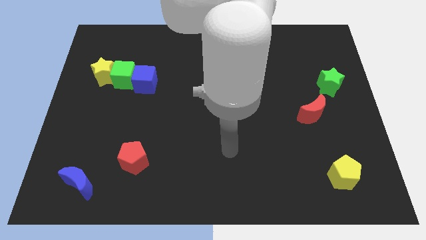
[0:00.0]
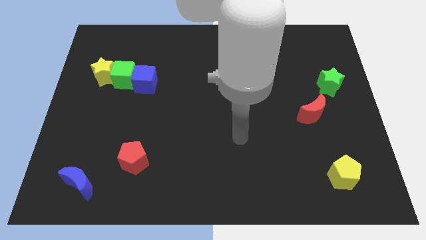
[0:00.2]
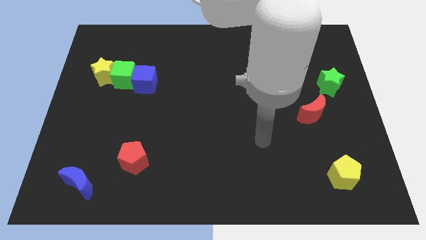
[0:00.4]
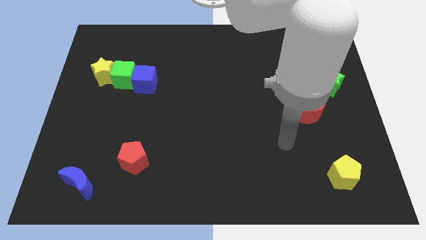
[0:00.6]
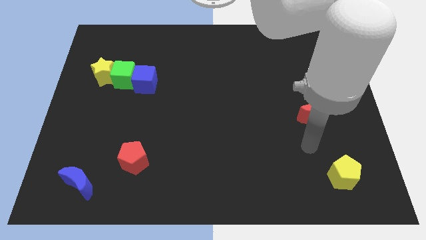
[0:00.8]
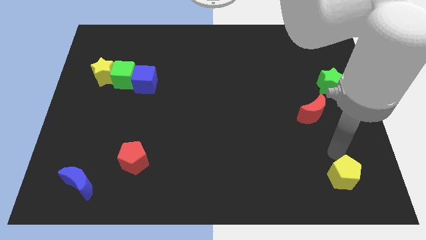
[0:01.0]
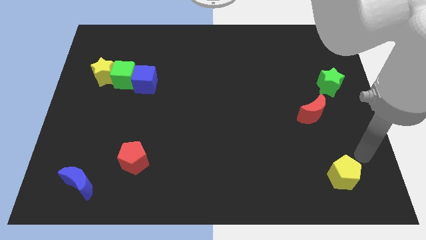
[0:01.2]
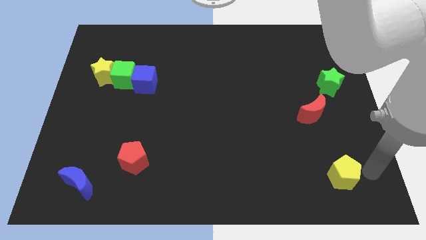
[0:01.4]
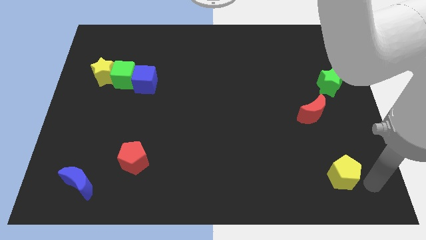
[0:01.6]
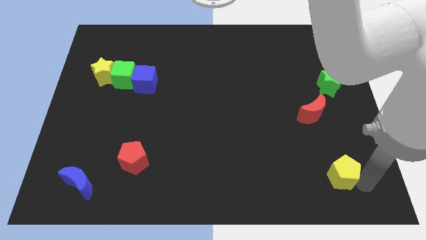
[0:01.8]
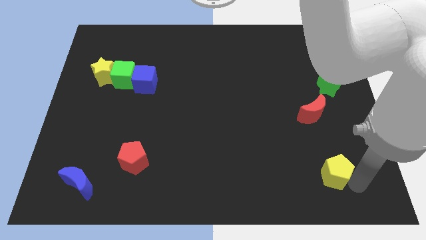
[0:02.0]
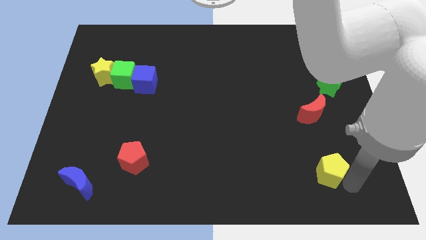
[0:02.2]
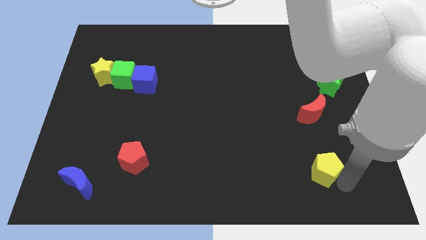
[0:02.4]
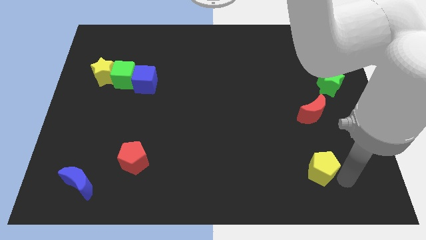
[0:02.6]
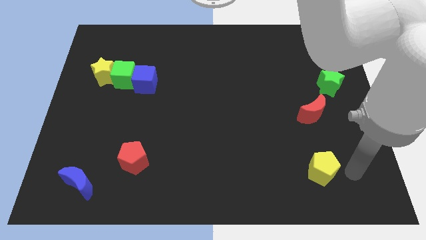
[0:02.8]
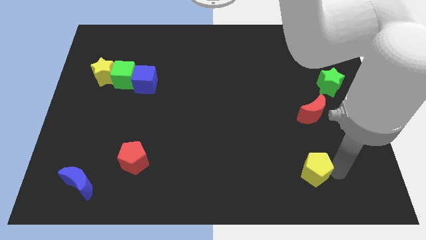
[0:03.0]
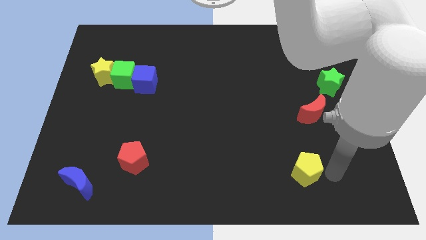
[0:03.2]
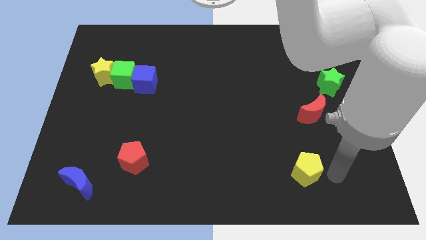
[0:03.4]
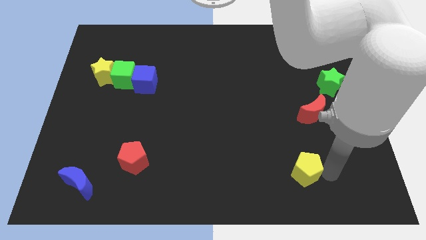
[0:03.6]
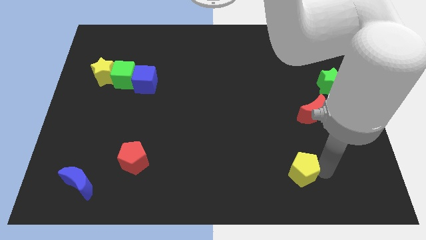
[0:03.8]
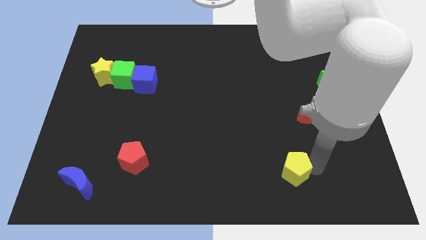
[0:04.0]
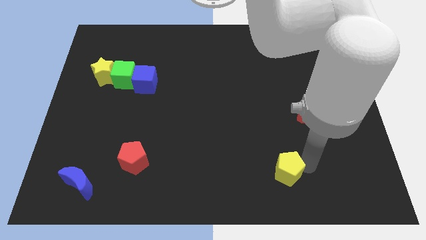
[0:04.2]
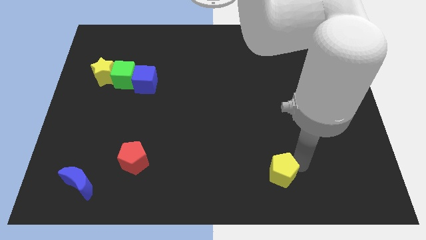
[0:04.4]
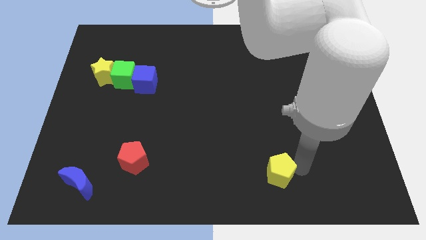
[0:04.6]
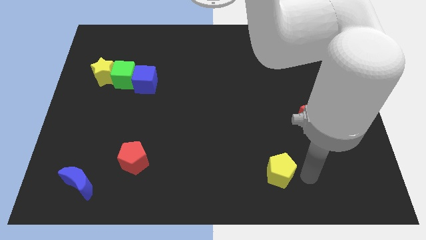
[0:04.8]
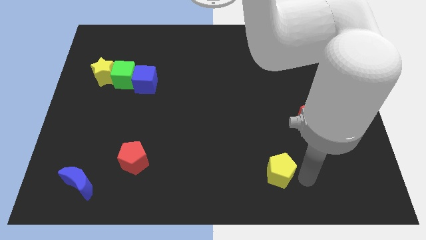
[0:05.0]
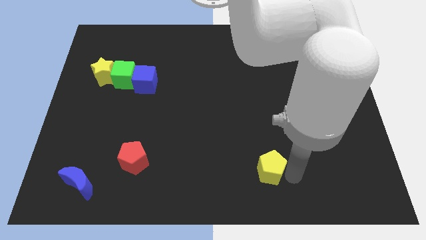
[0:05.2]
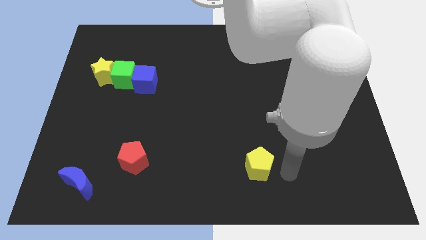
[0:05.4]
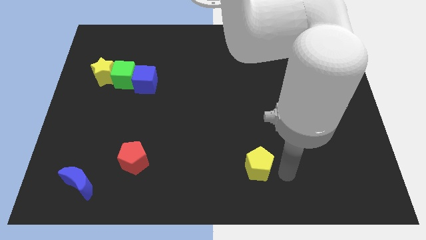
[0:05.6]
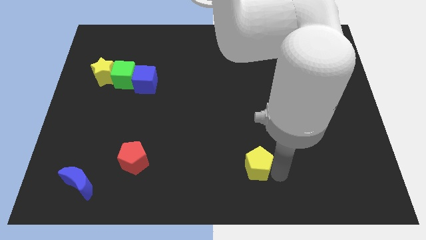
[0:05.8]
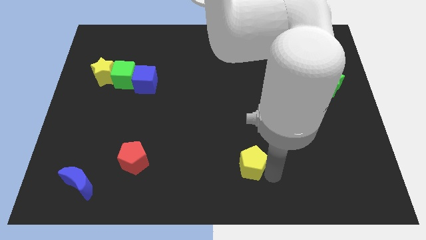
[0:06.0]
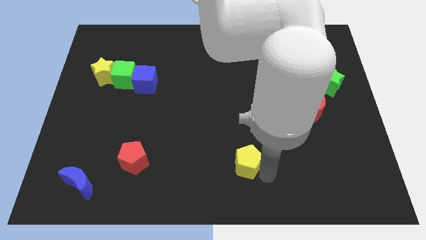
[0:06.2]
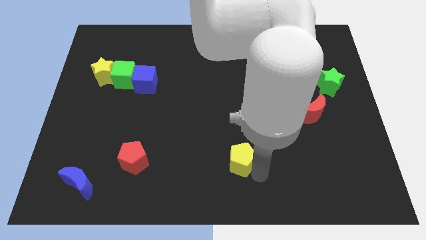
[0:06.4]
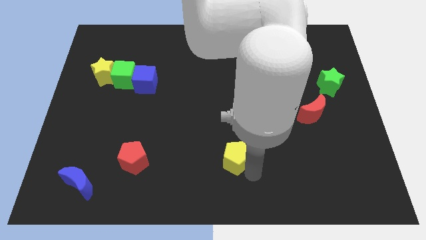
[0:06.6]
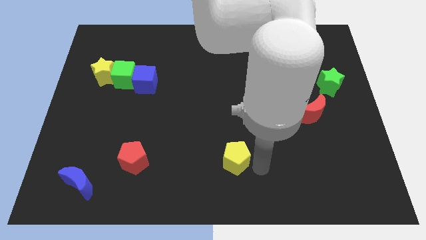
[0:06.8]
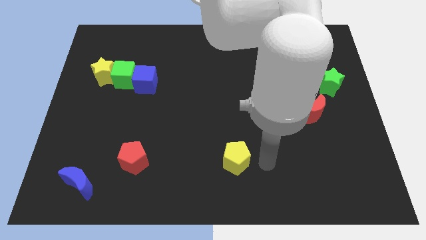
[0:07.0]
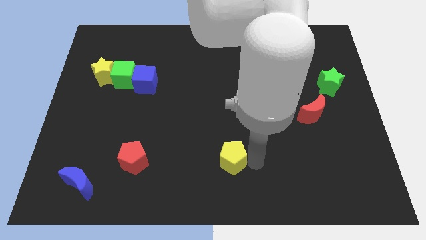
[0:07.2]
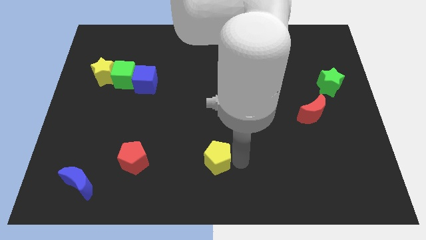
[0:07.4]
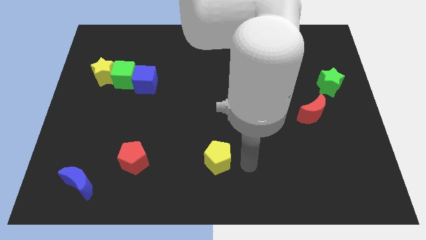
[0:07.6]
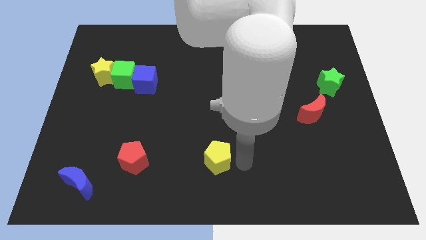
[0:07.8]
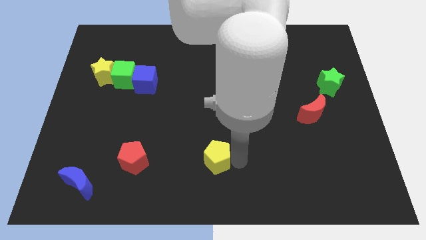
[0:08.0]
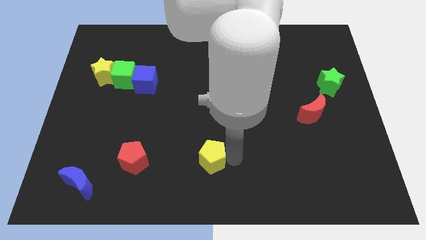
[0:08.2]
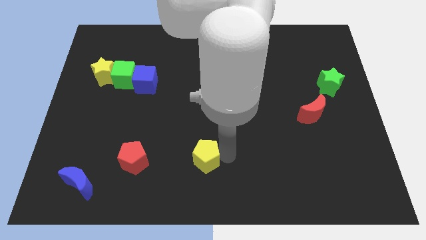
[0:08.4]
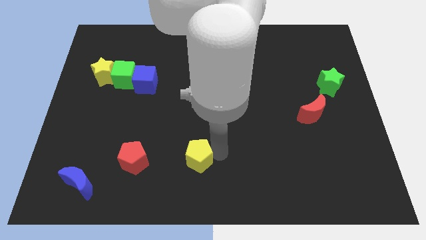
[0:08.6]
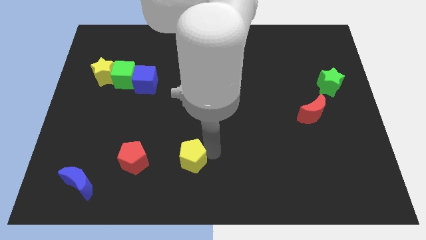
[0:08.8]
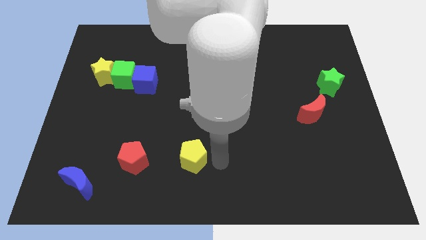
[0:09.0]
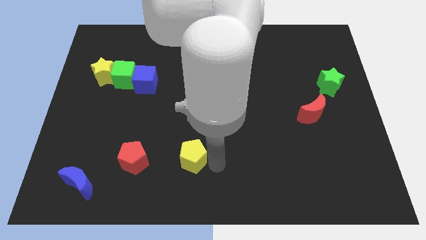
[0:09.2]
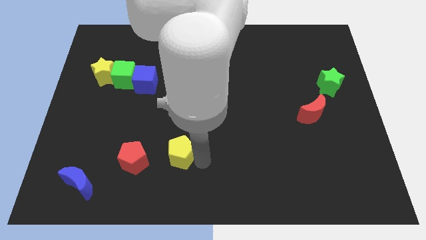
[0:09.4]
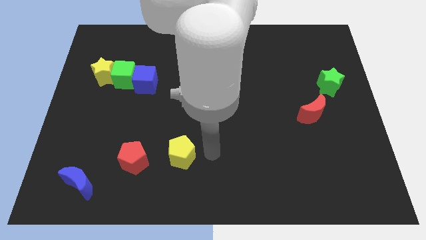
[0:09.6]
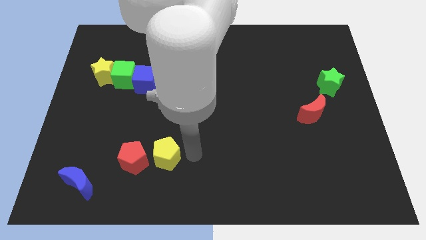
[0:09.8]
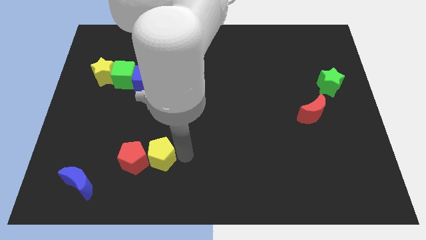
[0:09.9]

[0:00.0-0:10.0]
slide the yellow pentagon towards the red pentagon

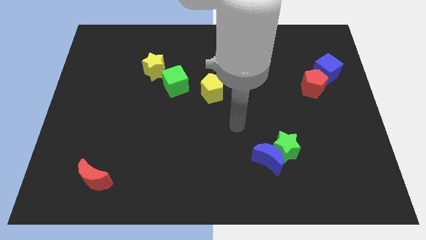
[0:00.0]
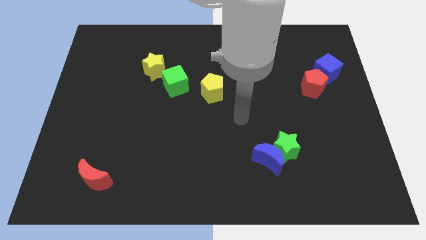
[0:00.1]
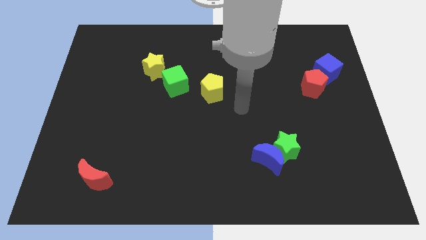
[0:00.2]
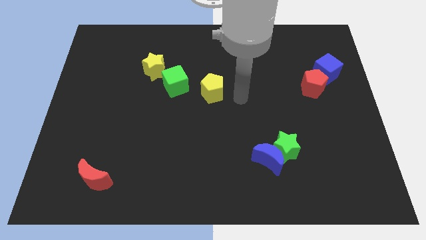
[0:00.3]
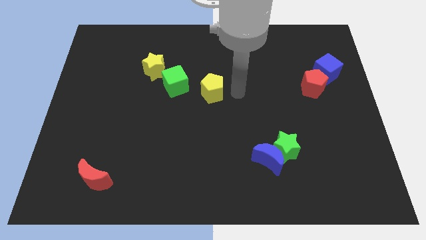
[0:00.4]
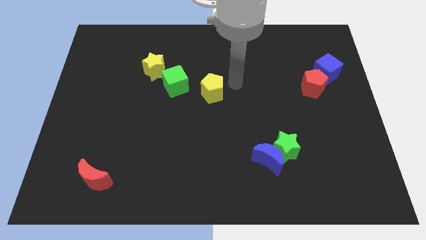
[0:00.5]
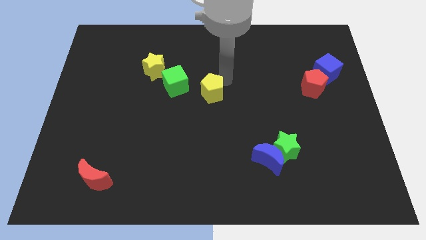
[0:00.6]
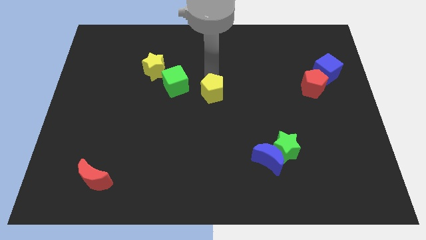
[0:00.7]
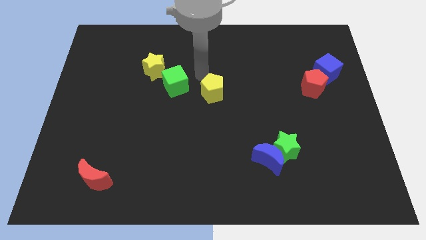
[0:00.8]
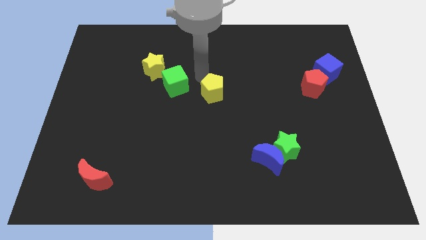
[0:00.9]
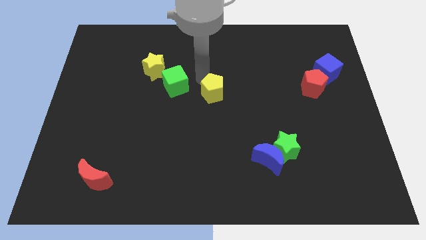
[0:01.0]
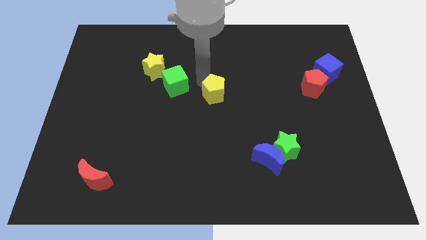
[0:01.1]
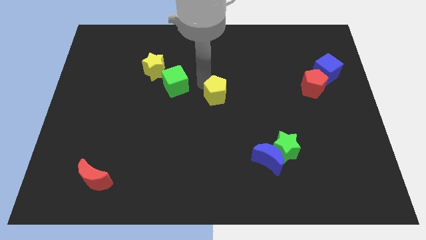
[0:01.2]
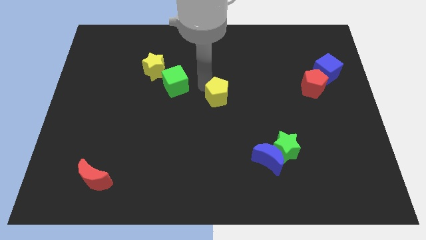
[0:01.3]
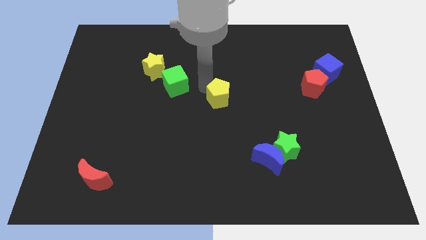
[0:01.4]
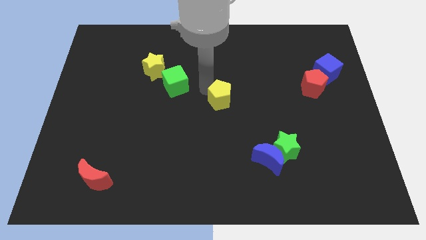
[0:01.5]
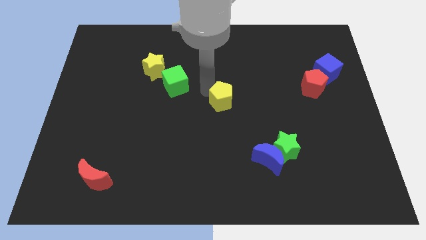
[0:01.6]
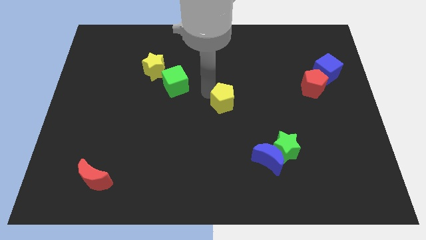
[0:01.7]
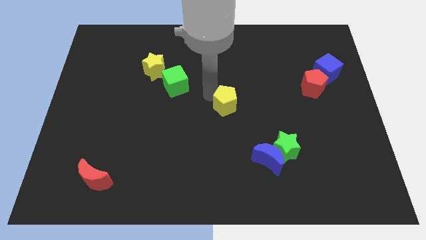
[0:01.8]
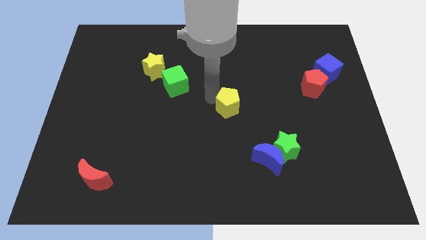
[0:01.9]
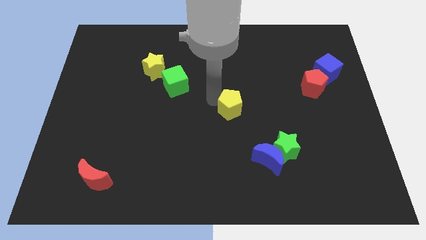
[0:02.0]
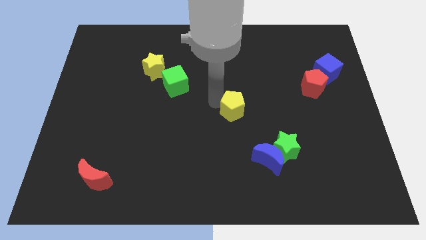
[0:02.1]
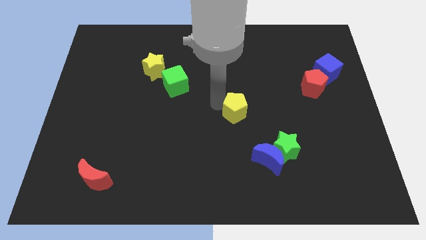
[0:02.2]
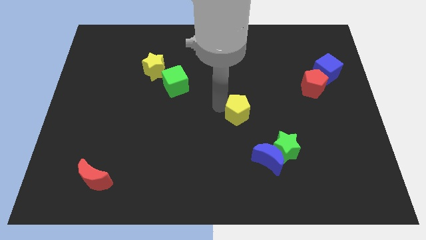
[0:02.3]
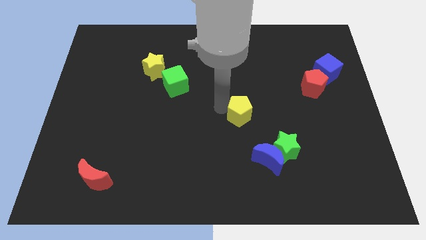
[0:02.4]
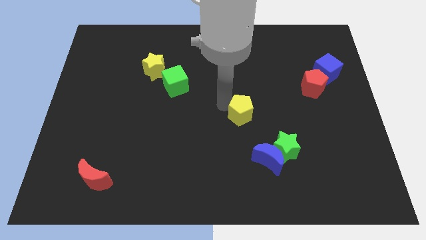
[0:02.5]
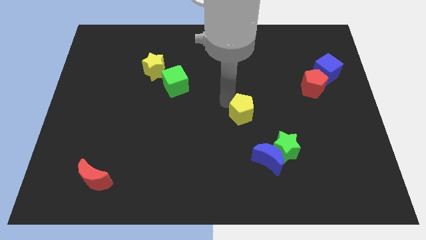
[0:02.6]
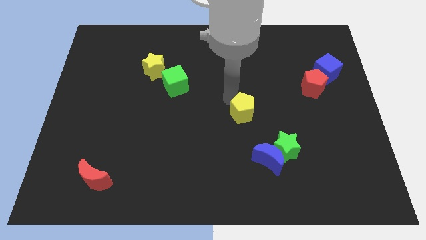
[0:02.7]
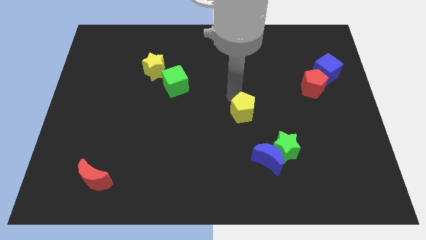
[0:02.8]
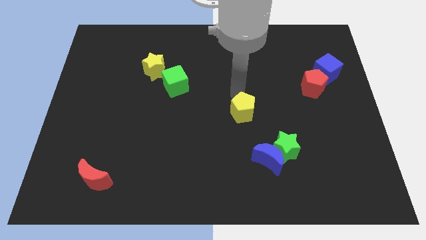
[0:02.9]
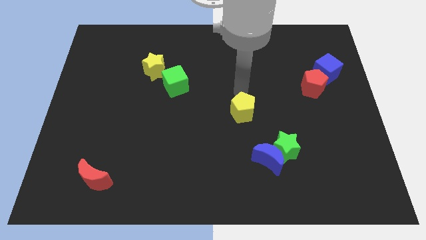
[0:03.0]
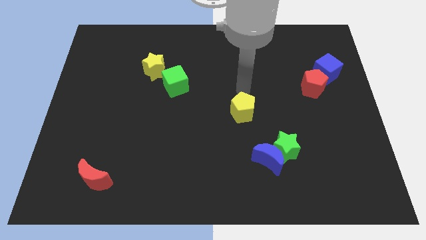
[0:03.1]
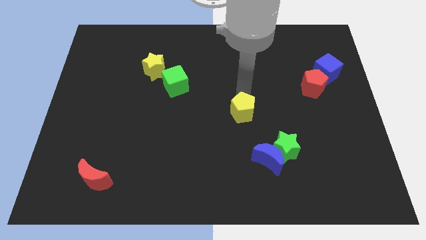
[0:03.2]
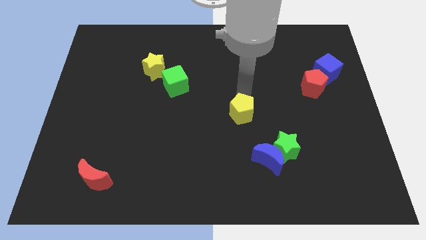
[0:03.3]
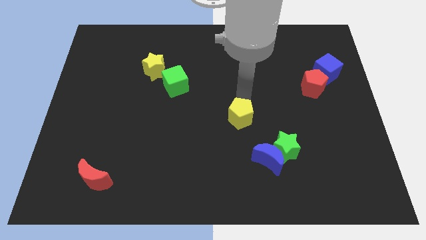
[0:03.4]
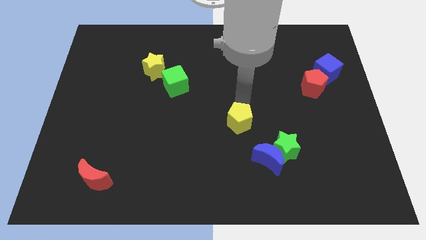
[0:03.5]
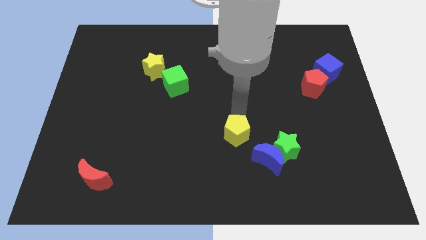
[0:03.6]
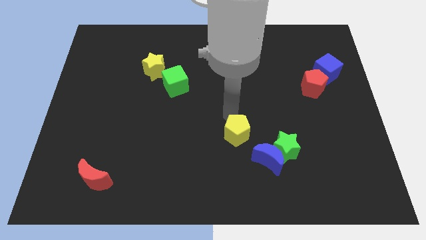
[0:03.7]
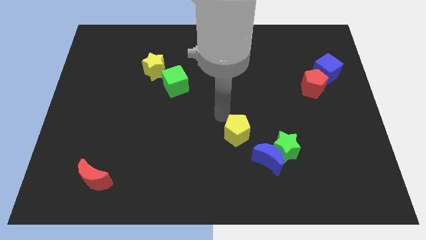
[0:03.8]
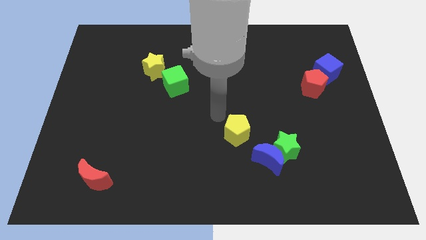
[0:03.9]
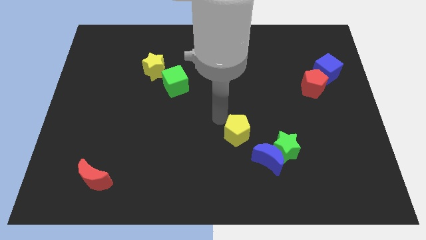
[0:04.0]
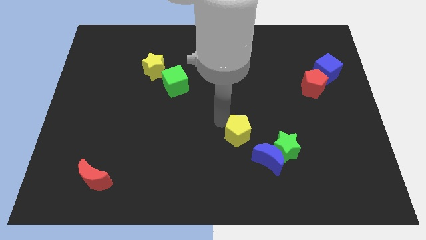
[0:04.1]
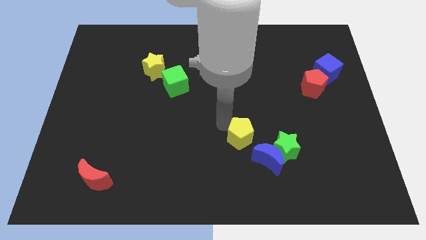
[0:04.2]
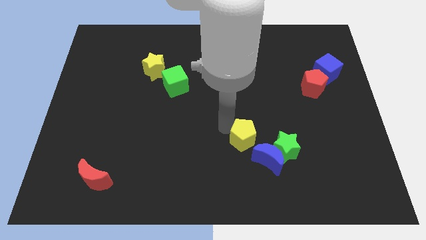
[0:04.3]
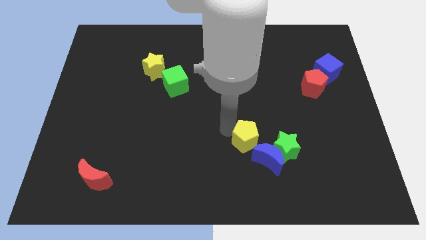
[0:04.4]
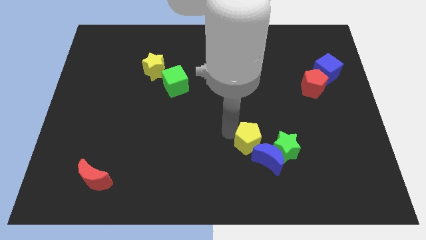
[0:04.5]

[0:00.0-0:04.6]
slide the yellow pentagon next to the blue moon
